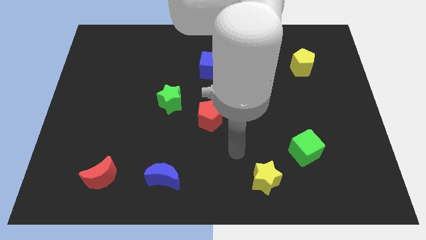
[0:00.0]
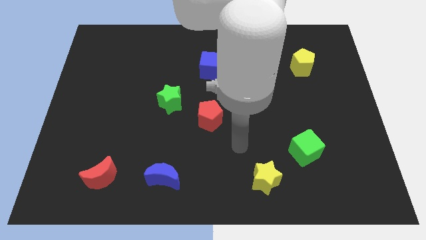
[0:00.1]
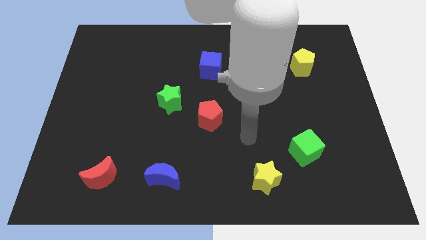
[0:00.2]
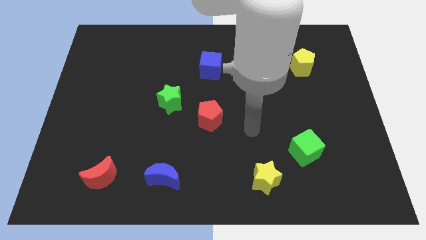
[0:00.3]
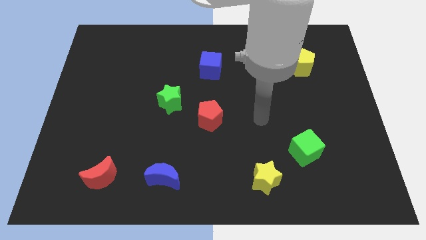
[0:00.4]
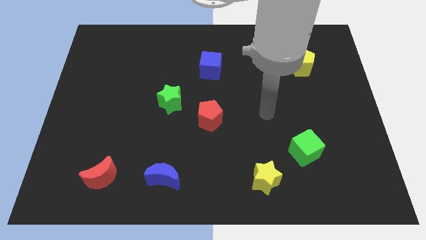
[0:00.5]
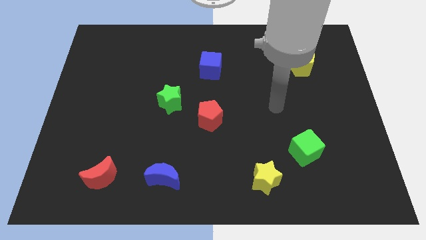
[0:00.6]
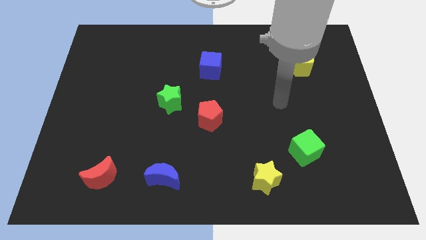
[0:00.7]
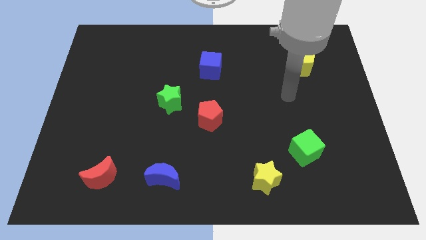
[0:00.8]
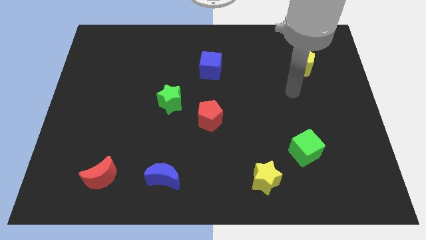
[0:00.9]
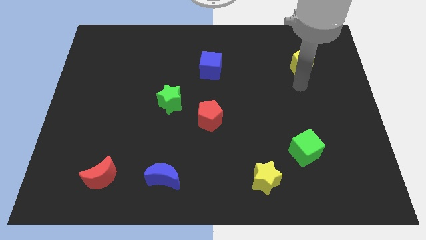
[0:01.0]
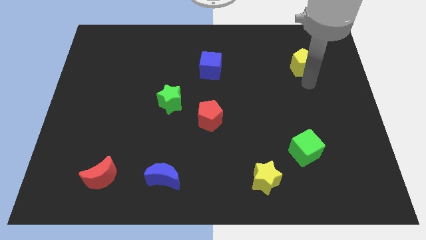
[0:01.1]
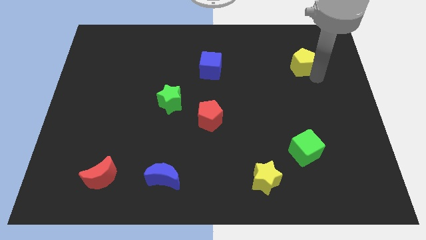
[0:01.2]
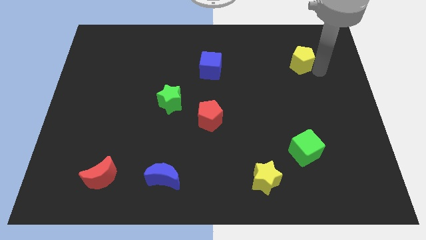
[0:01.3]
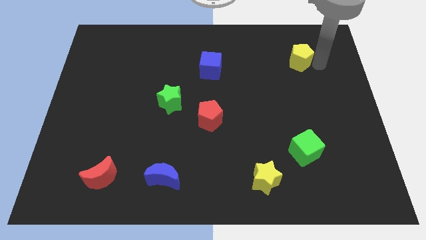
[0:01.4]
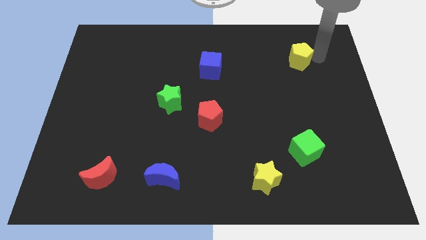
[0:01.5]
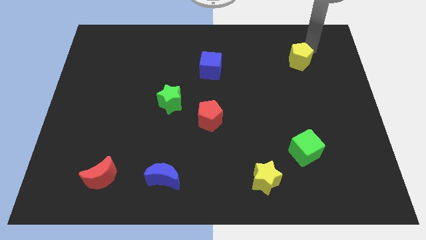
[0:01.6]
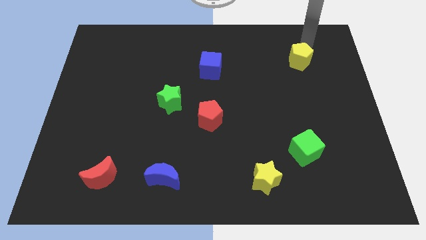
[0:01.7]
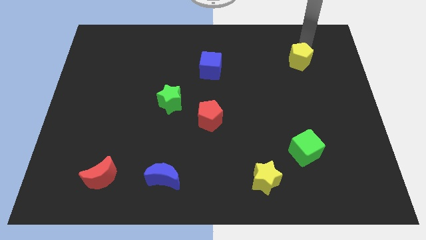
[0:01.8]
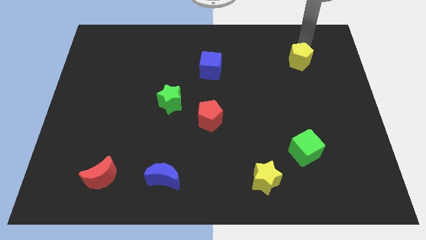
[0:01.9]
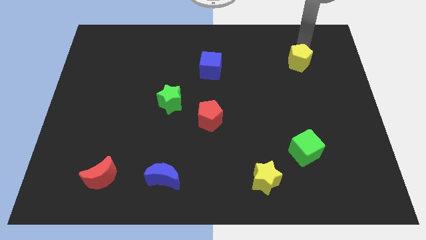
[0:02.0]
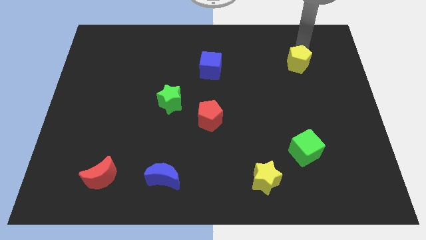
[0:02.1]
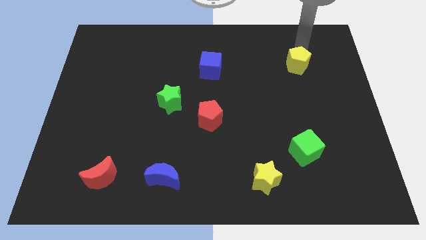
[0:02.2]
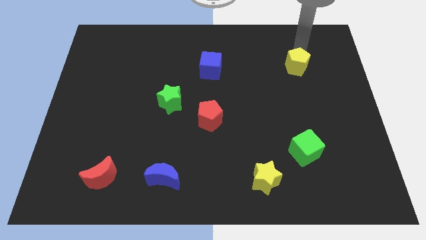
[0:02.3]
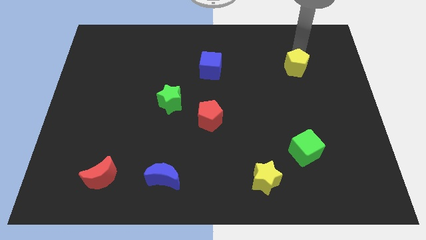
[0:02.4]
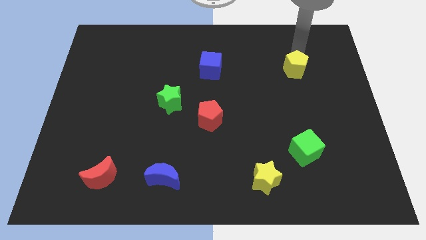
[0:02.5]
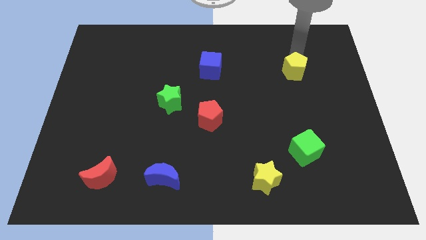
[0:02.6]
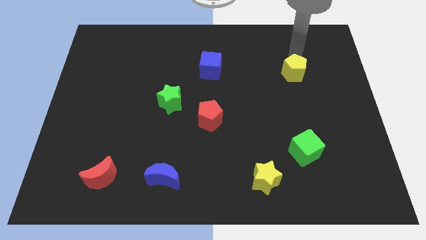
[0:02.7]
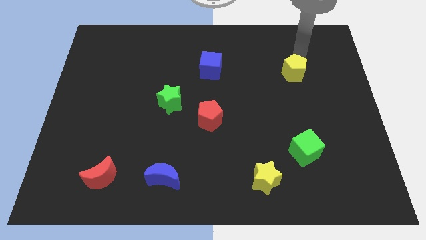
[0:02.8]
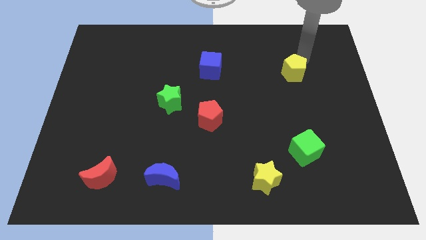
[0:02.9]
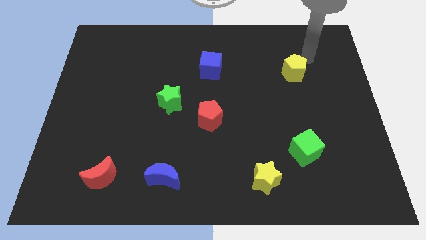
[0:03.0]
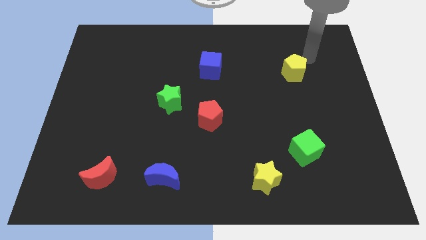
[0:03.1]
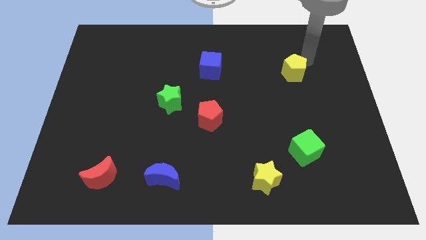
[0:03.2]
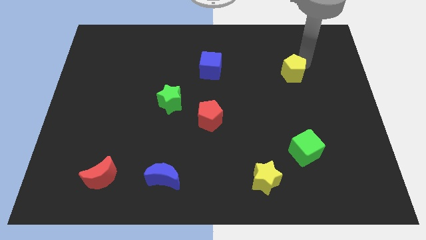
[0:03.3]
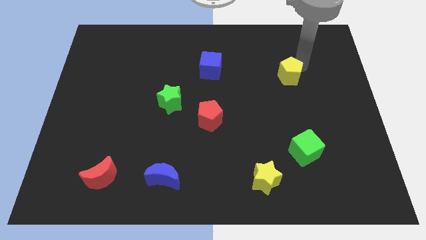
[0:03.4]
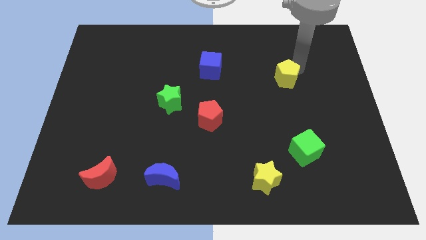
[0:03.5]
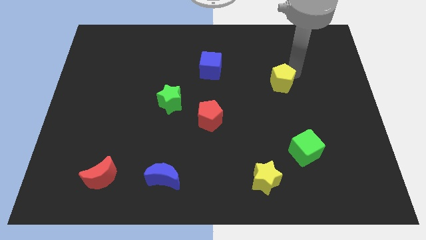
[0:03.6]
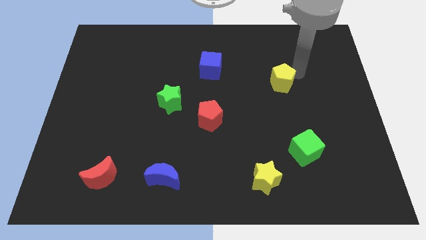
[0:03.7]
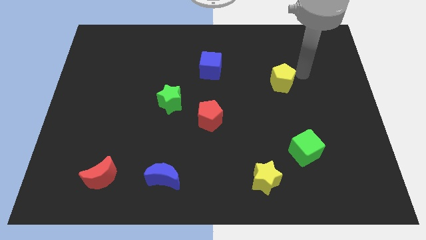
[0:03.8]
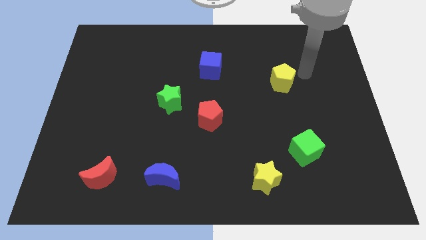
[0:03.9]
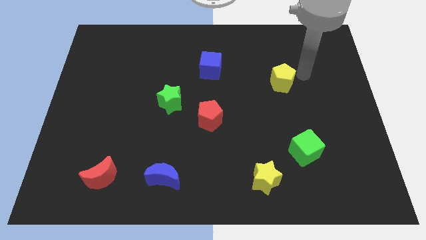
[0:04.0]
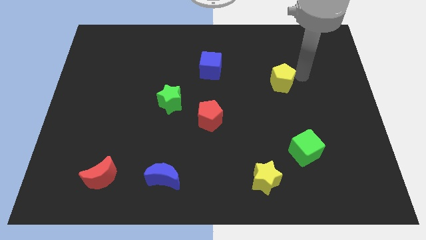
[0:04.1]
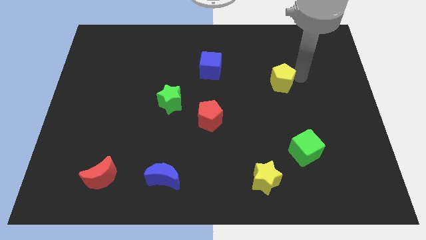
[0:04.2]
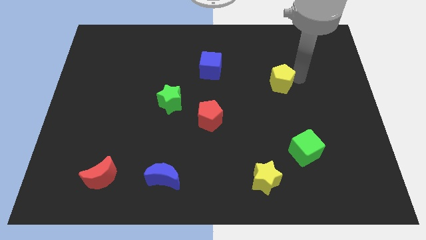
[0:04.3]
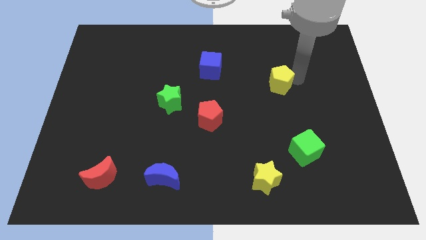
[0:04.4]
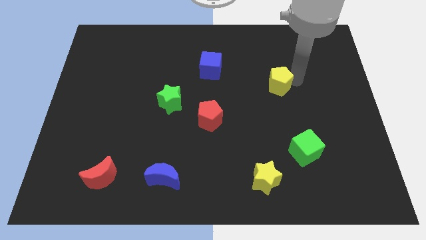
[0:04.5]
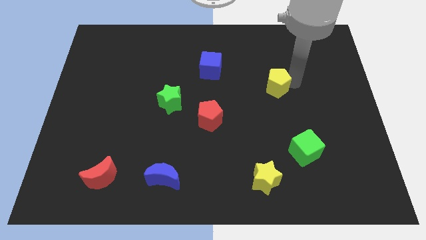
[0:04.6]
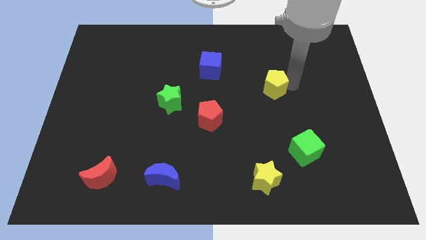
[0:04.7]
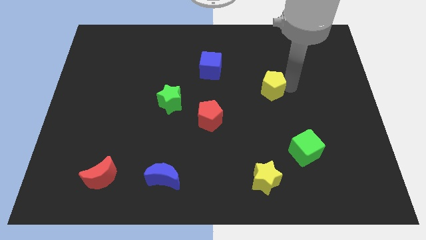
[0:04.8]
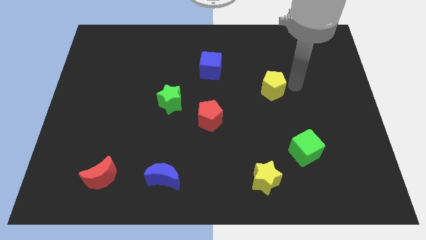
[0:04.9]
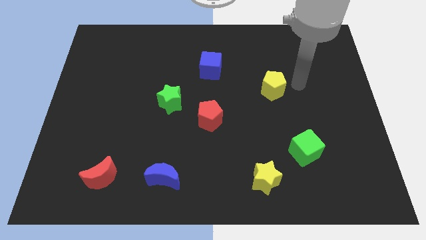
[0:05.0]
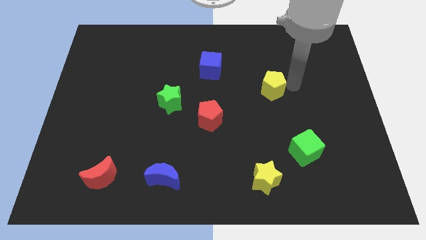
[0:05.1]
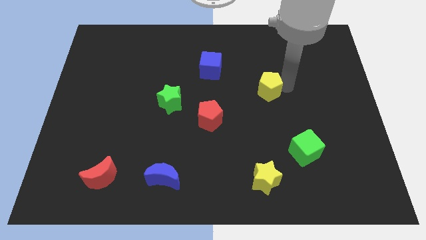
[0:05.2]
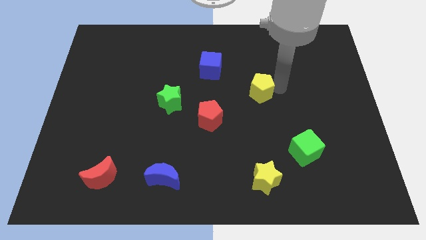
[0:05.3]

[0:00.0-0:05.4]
push the yellow pentagon to the middle of the board

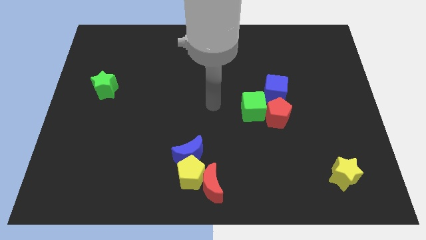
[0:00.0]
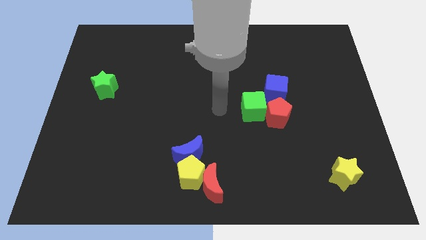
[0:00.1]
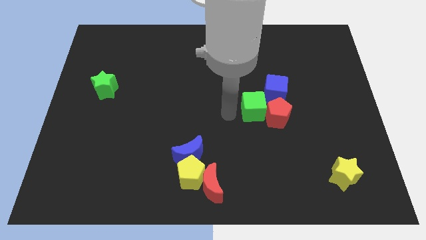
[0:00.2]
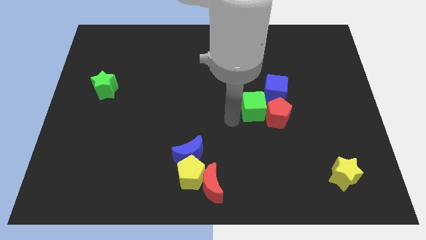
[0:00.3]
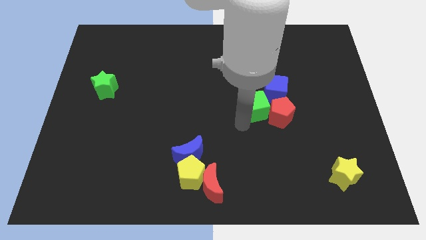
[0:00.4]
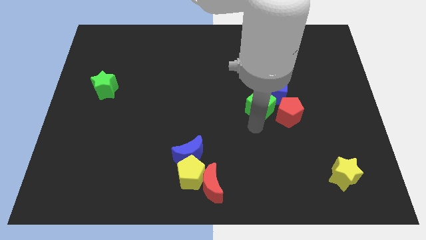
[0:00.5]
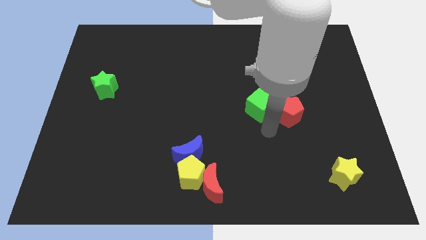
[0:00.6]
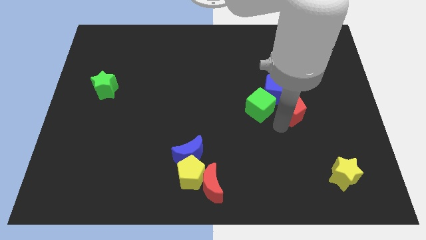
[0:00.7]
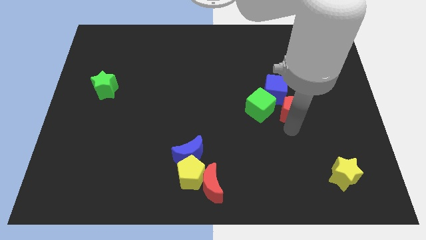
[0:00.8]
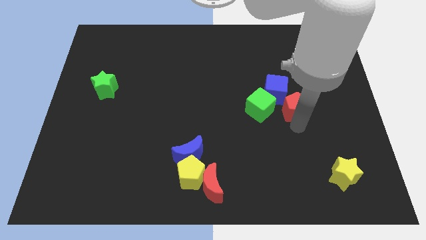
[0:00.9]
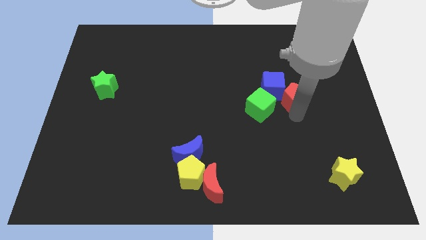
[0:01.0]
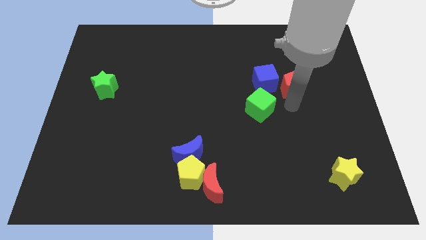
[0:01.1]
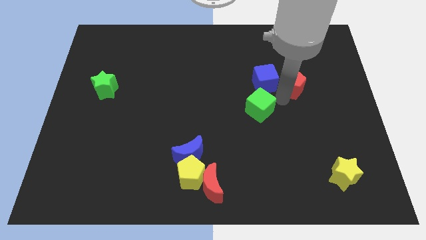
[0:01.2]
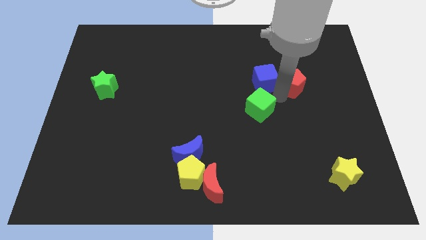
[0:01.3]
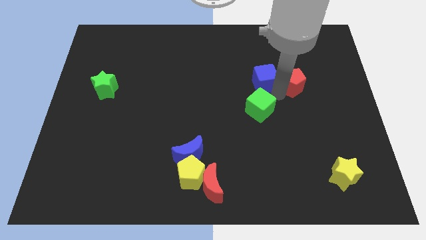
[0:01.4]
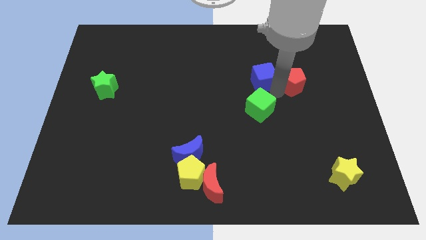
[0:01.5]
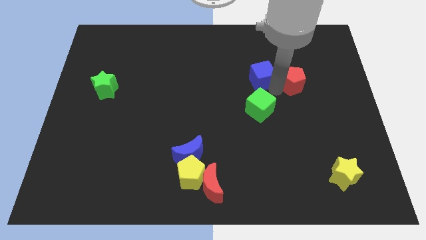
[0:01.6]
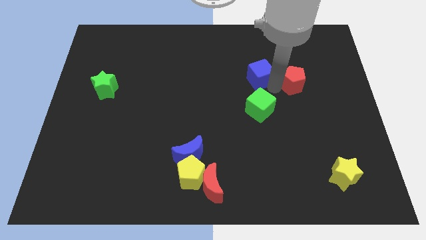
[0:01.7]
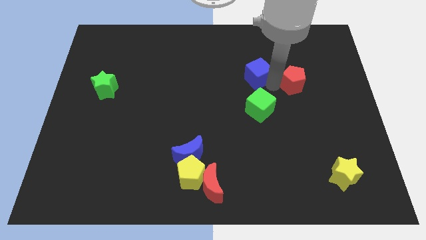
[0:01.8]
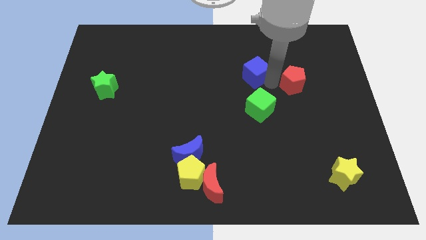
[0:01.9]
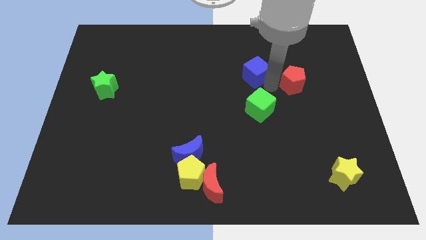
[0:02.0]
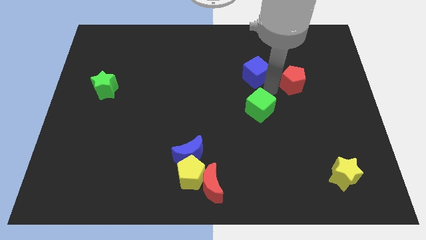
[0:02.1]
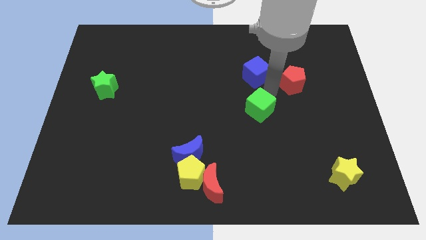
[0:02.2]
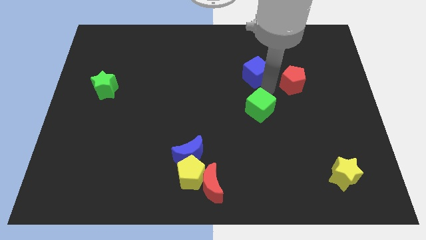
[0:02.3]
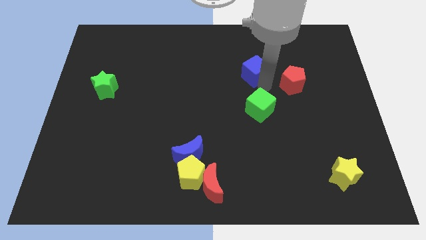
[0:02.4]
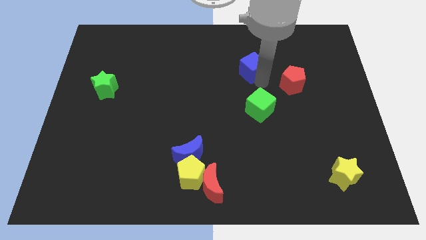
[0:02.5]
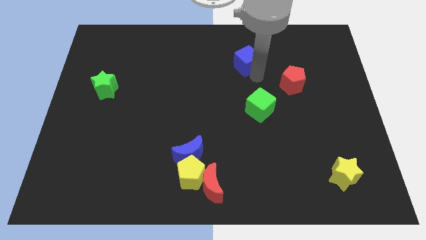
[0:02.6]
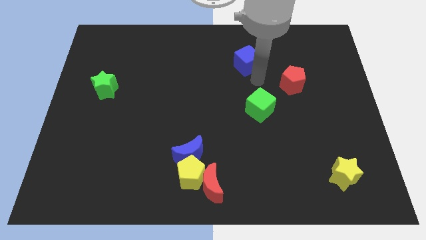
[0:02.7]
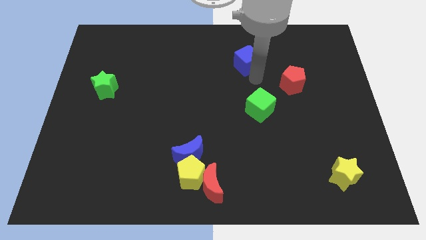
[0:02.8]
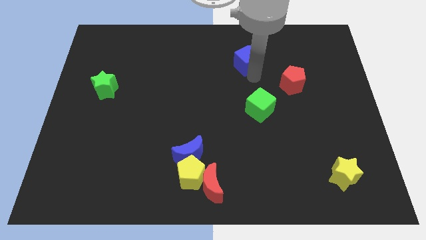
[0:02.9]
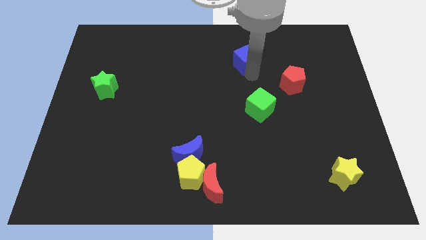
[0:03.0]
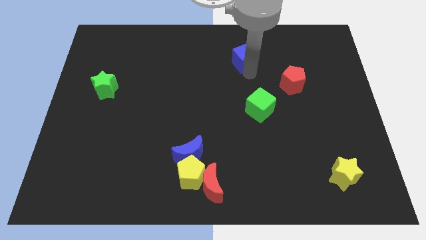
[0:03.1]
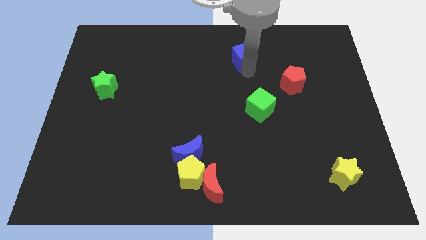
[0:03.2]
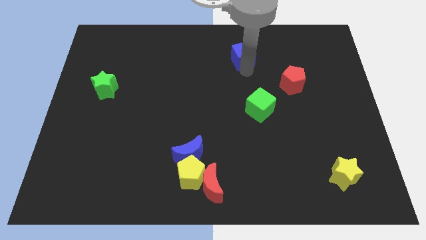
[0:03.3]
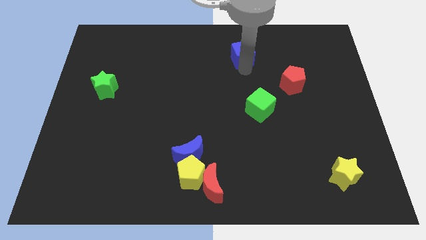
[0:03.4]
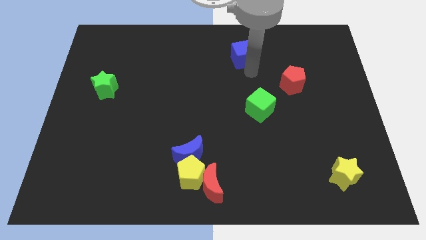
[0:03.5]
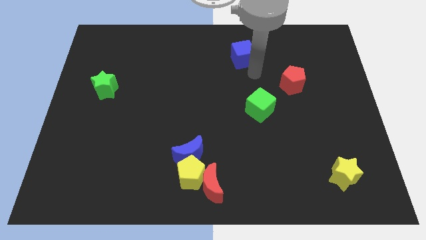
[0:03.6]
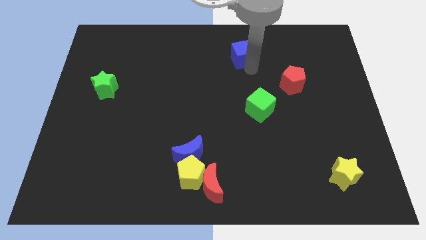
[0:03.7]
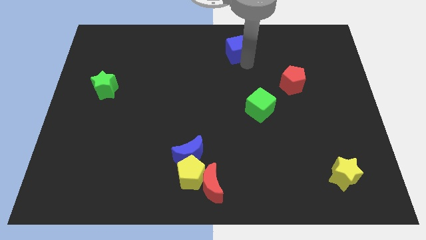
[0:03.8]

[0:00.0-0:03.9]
move the blue cube to the top
